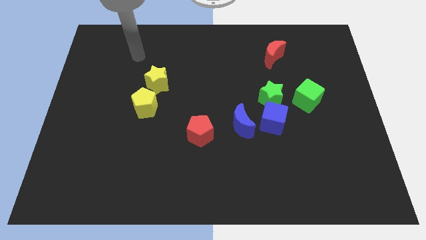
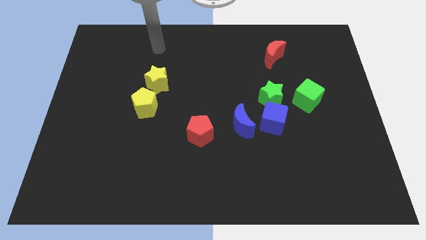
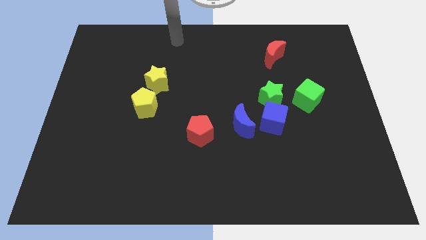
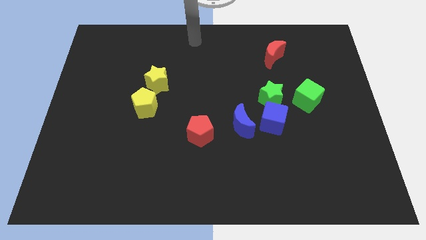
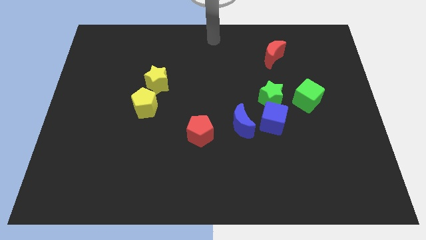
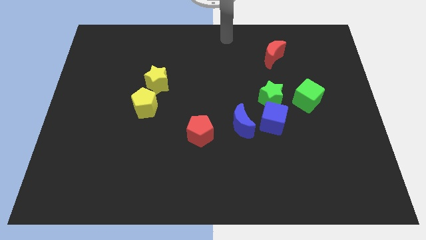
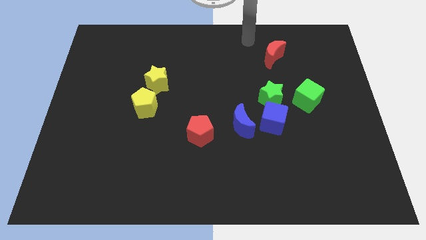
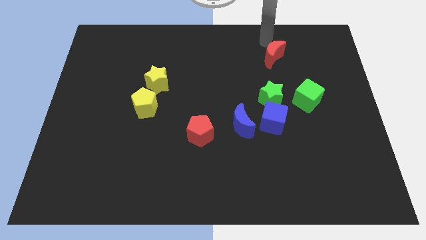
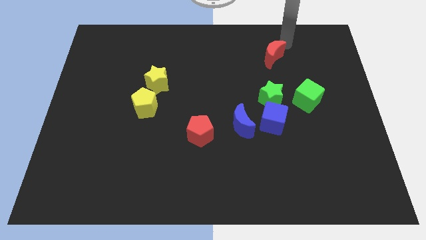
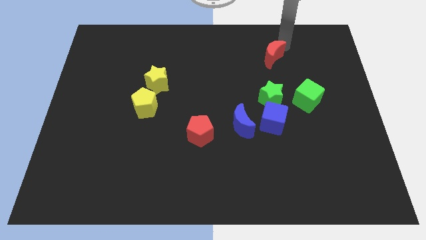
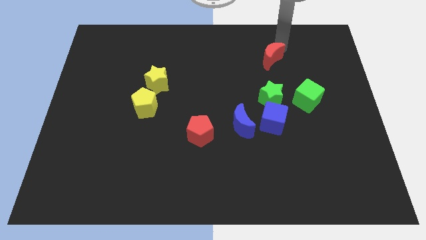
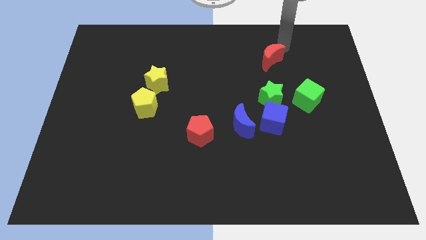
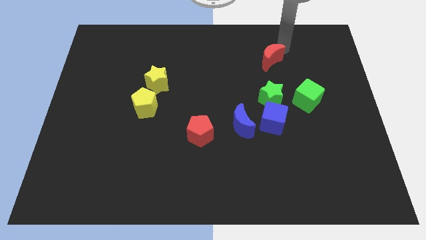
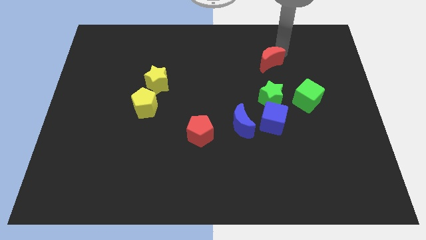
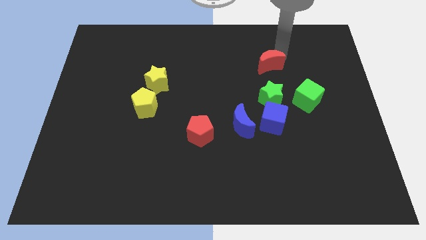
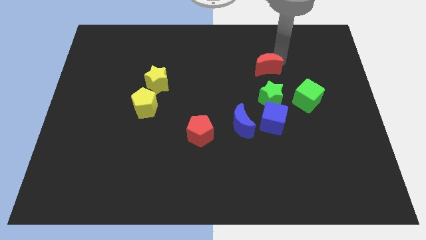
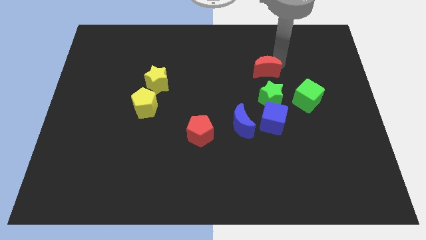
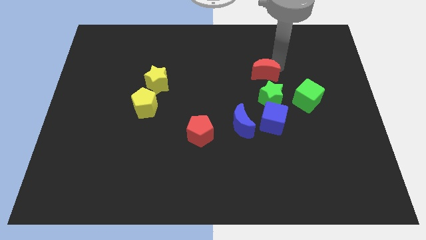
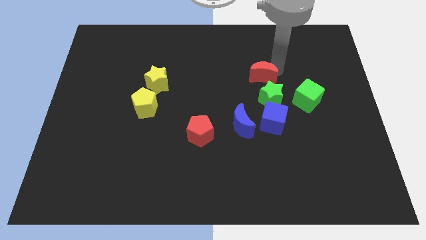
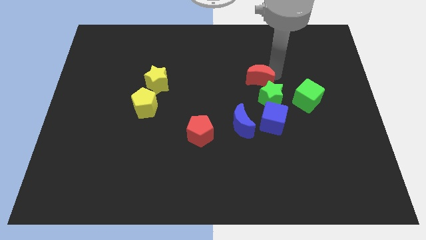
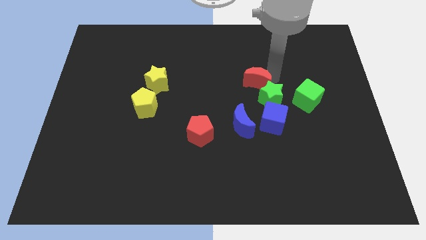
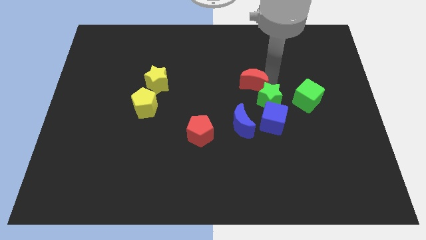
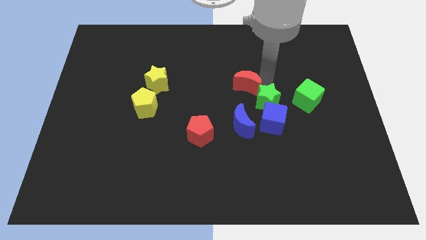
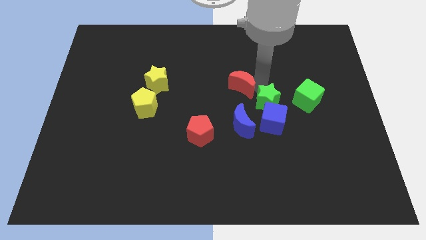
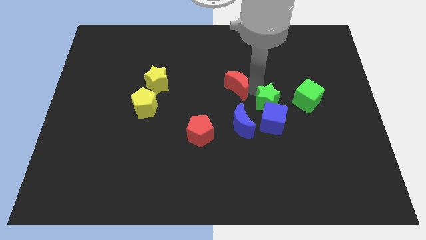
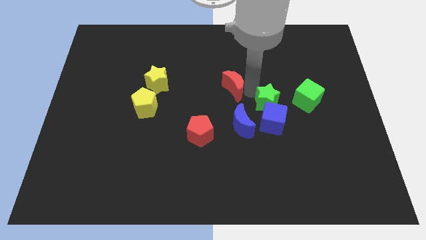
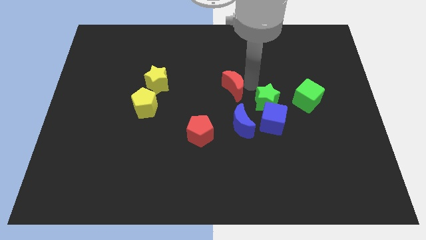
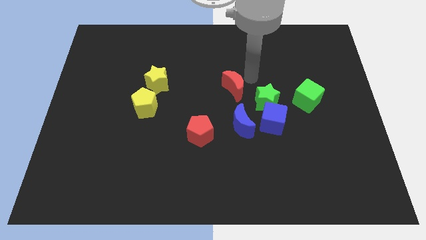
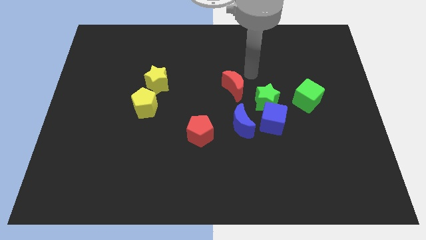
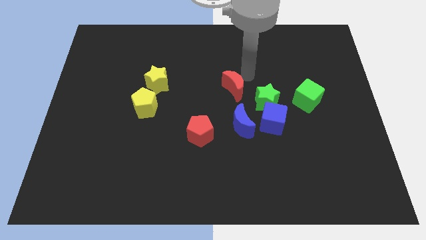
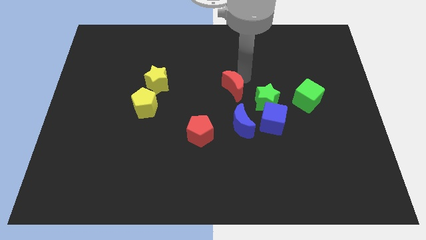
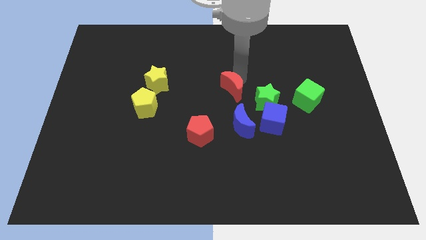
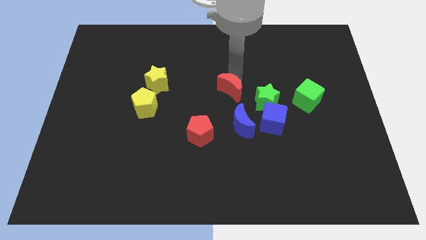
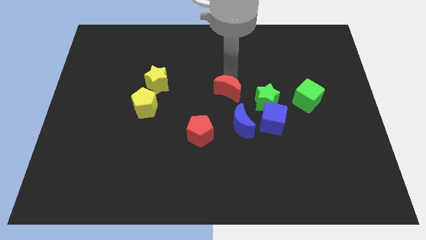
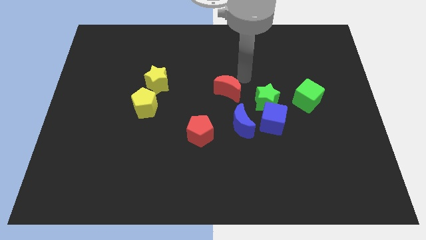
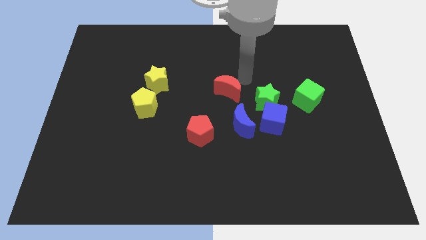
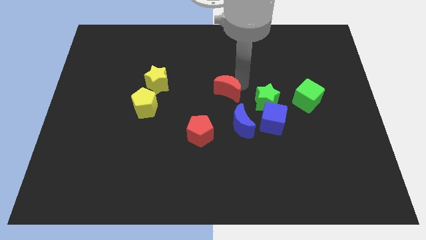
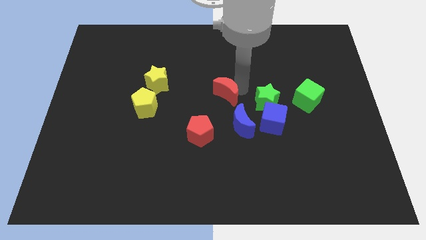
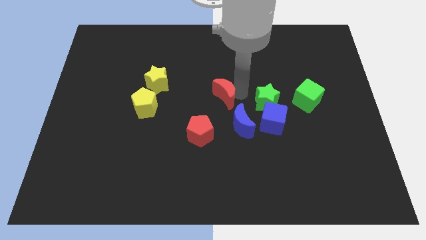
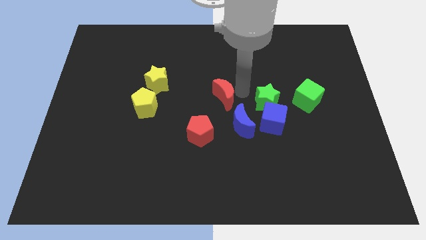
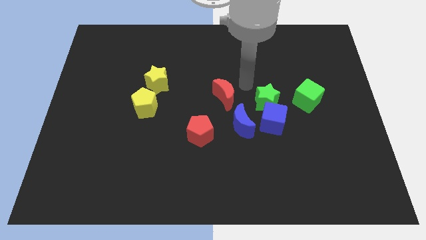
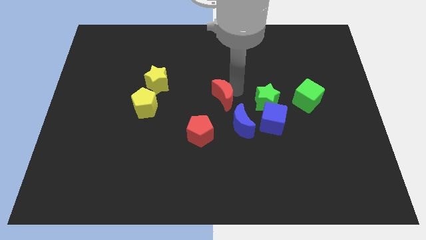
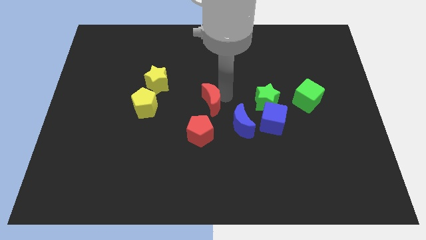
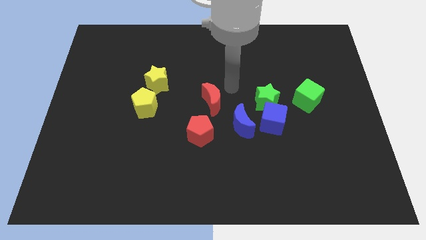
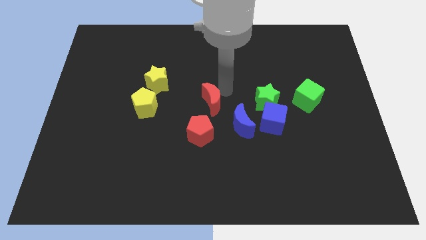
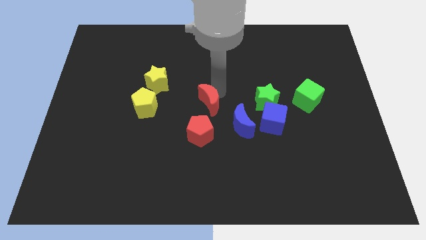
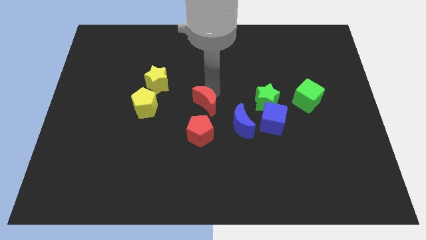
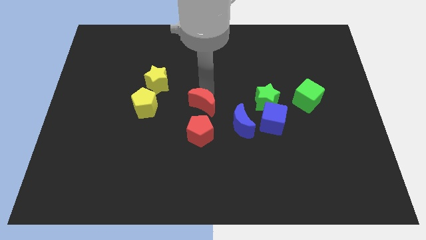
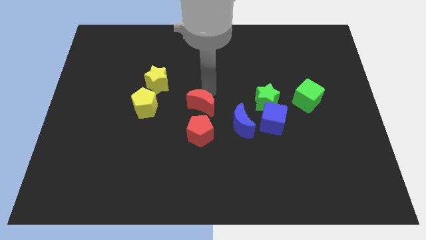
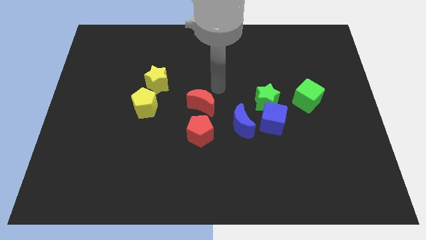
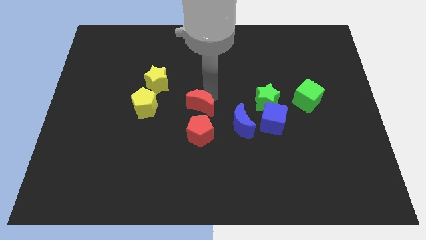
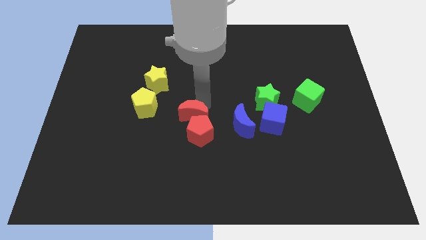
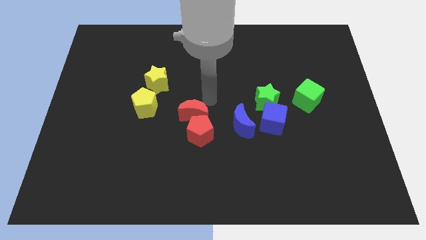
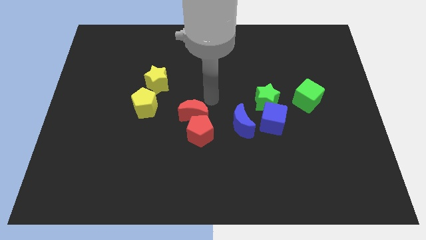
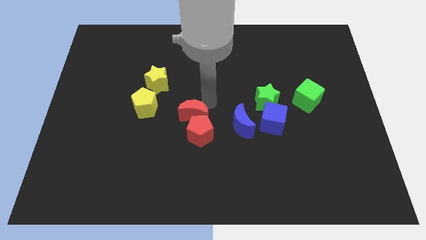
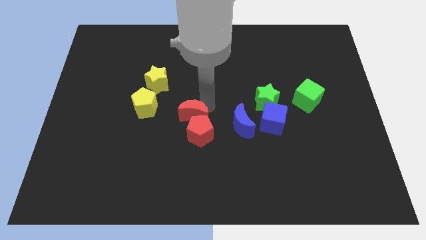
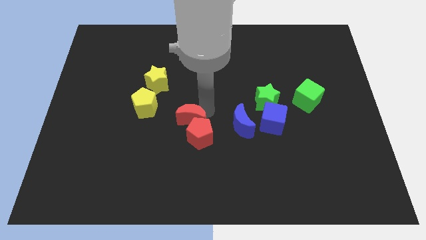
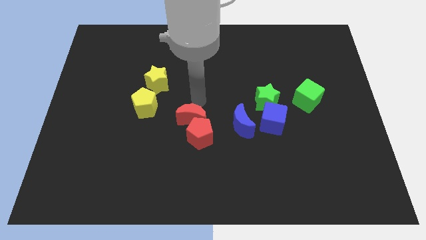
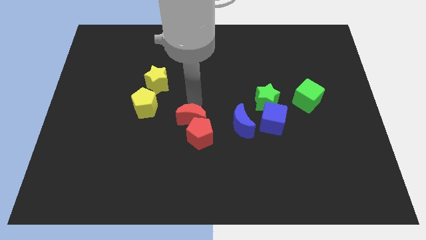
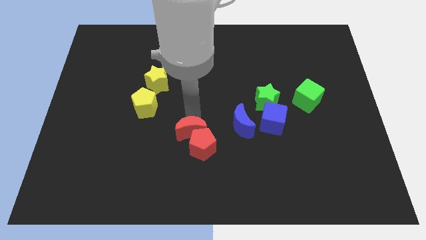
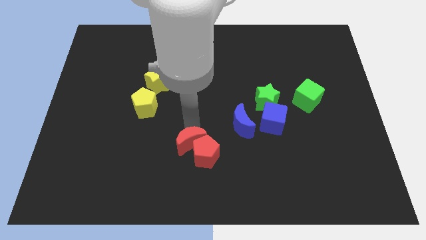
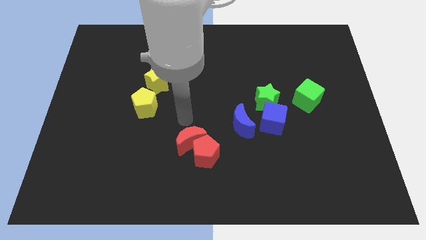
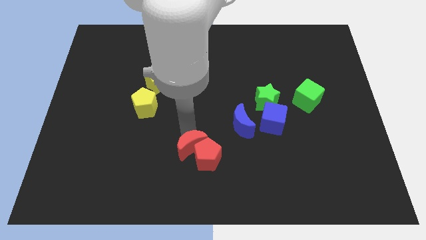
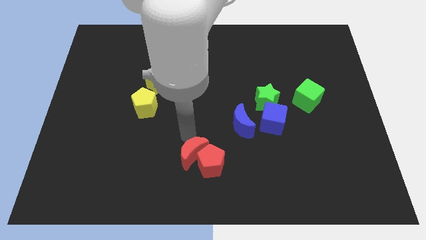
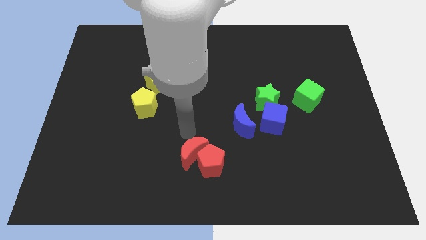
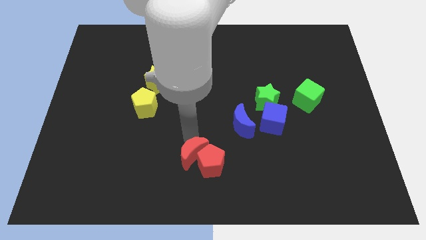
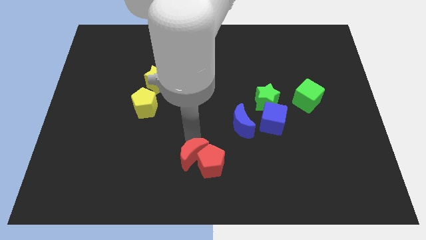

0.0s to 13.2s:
move the red moon to the bottom
